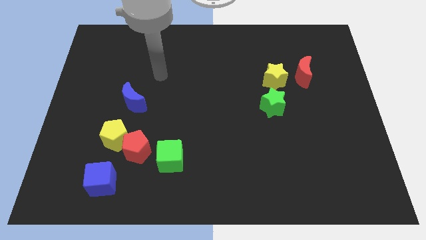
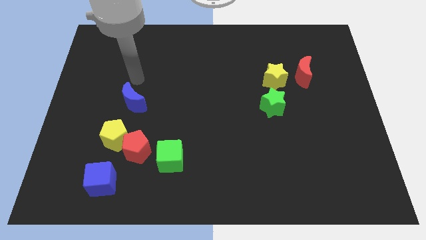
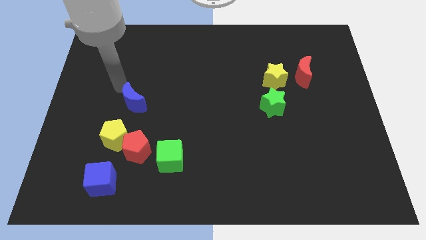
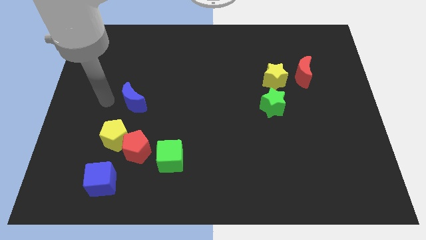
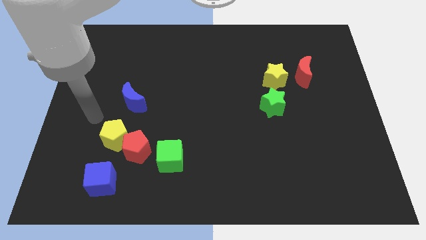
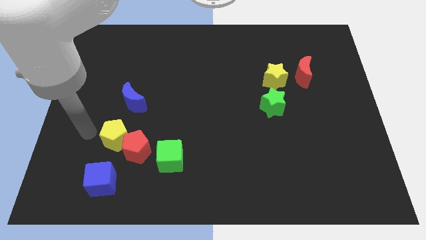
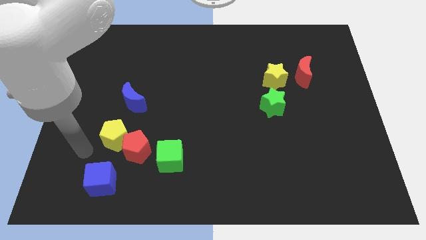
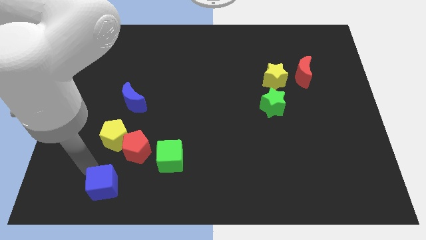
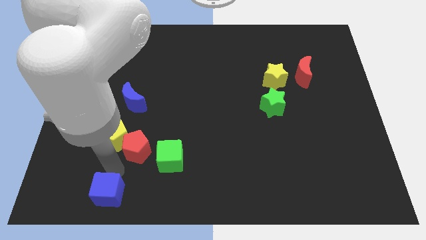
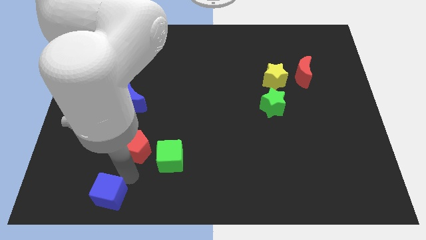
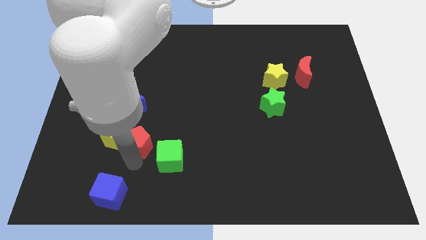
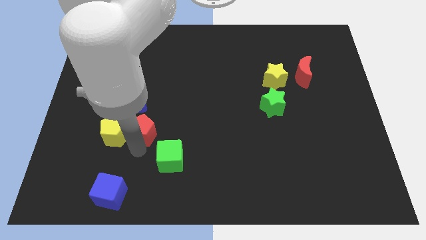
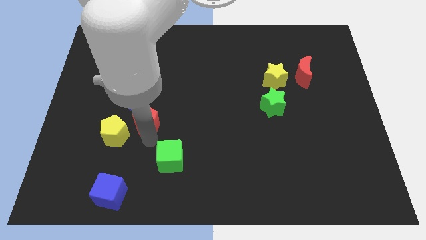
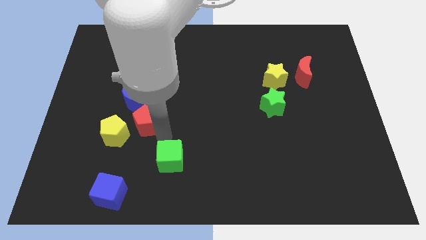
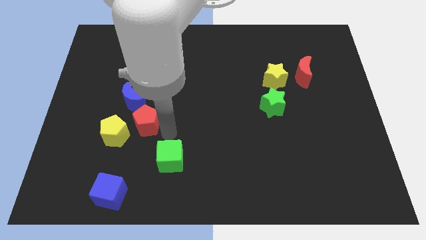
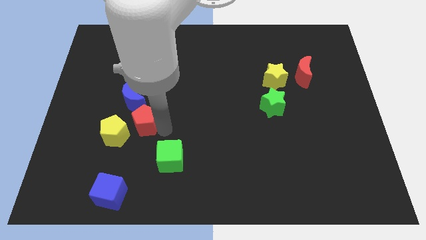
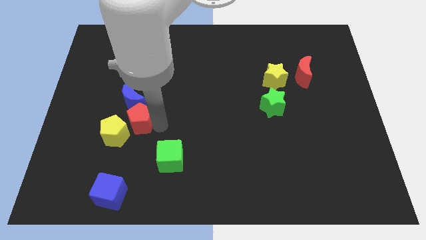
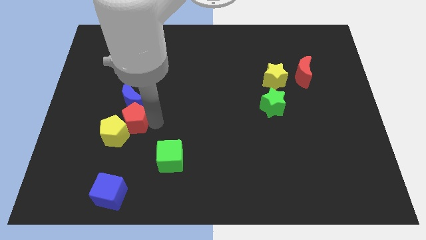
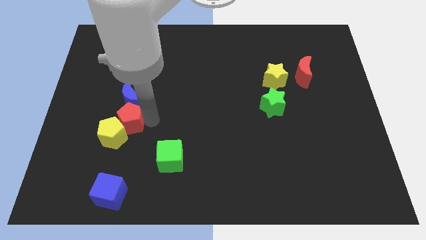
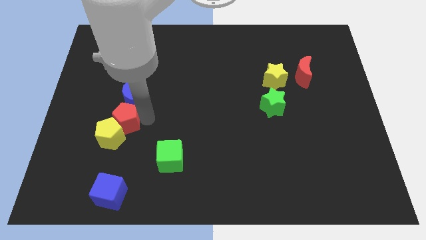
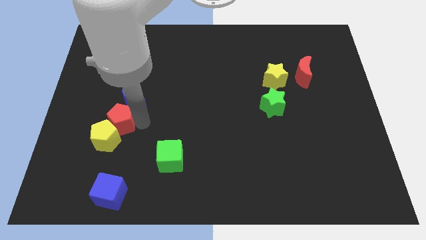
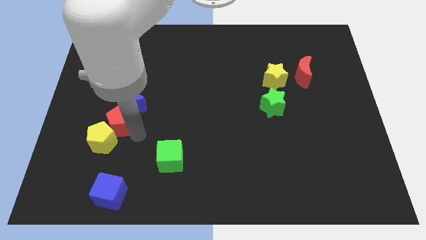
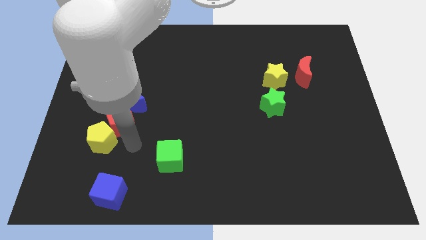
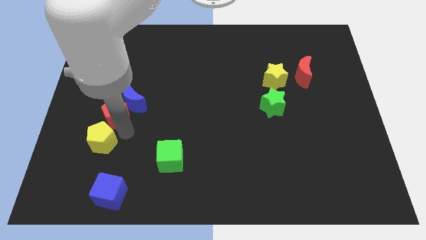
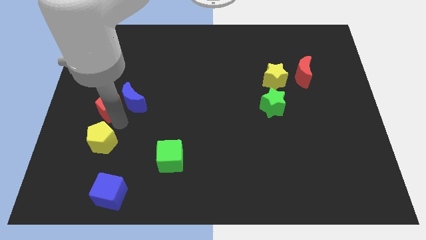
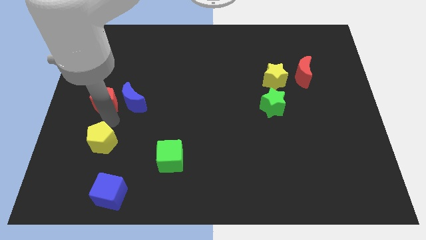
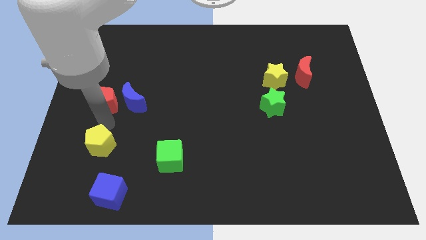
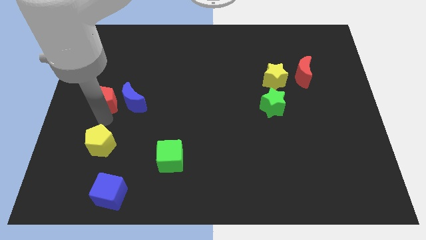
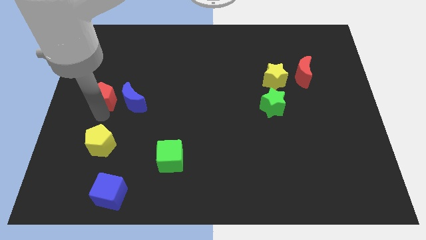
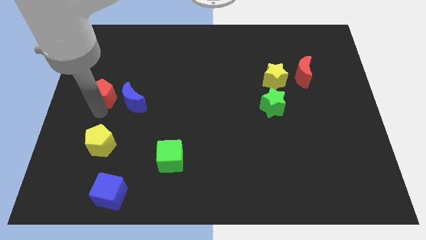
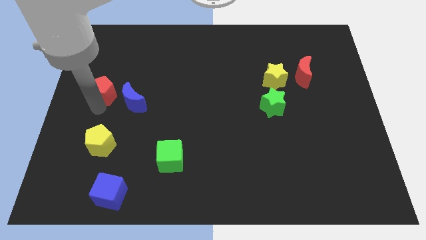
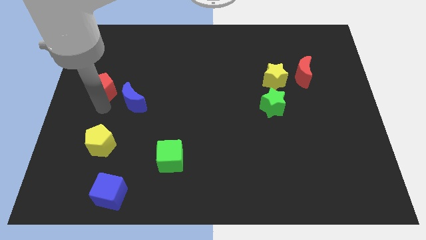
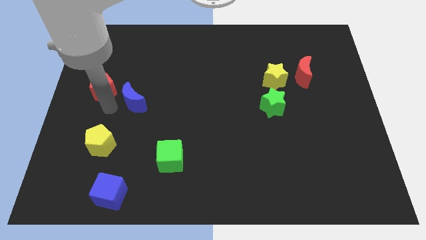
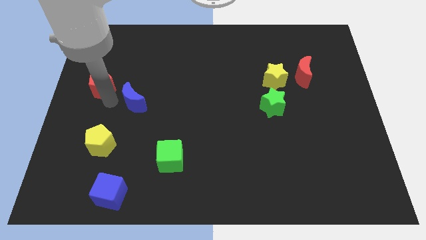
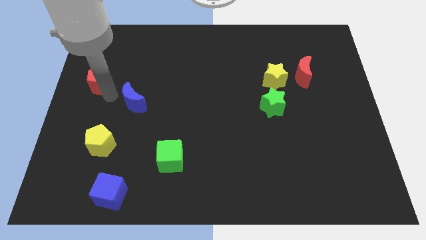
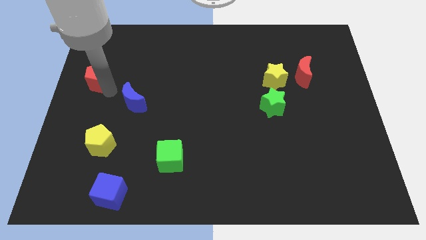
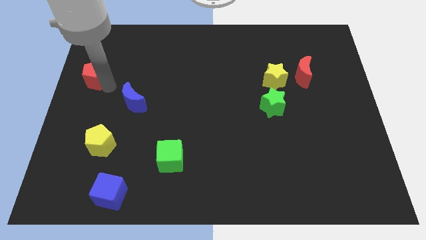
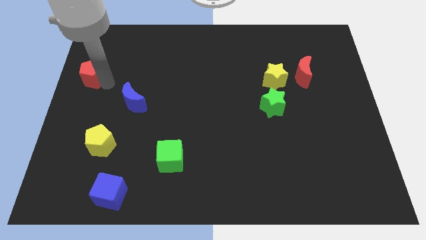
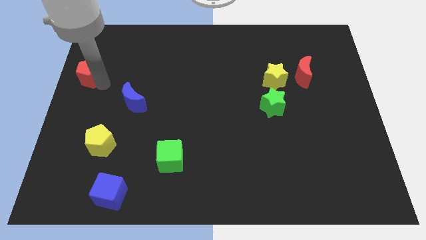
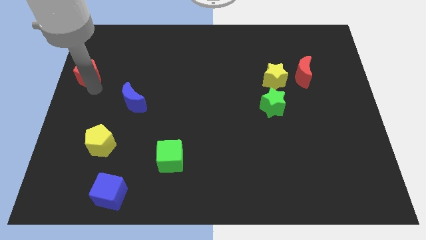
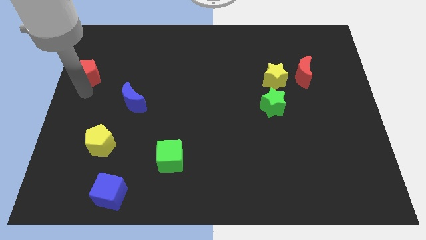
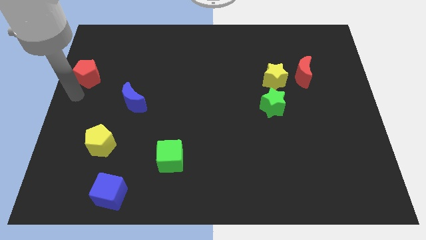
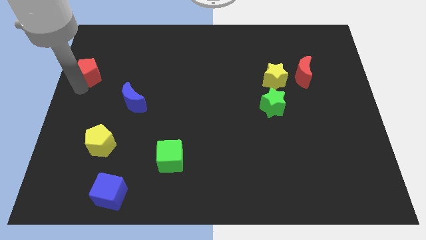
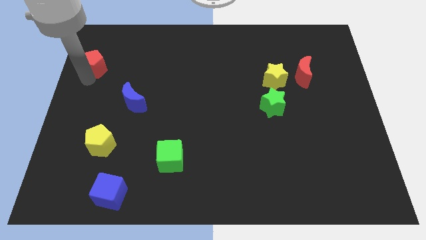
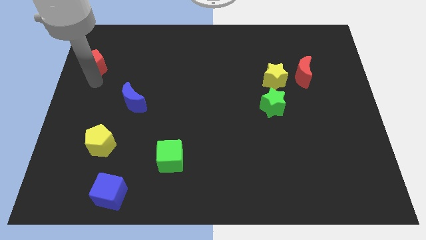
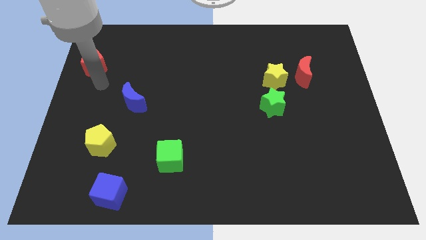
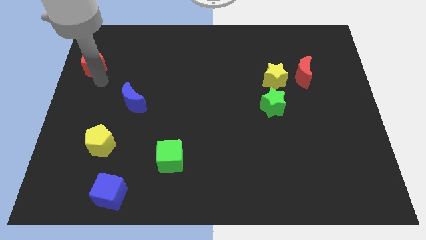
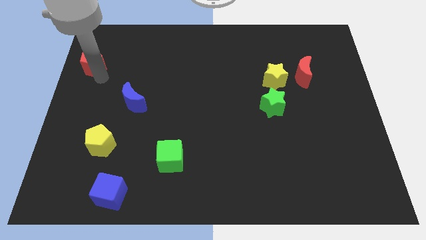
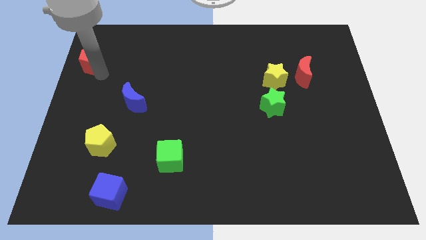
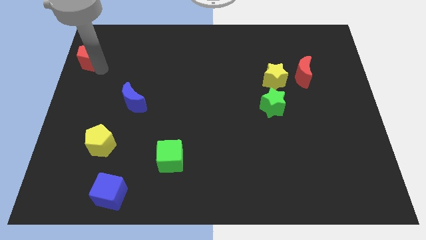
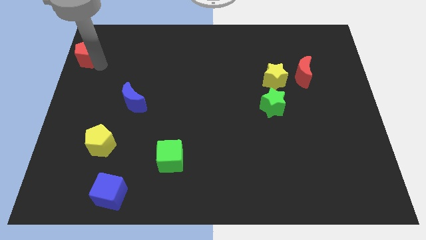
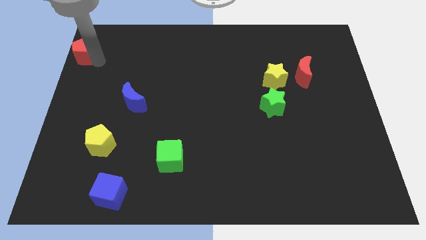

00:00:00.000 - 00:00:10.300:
slide the red pentagon to the top left of the board

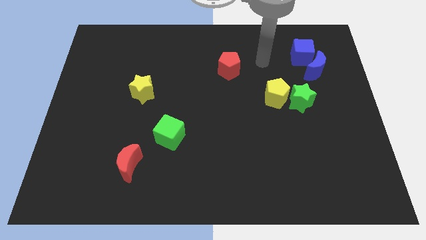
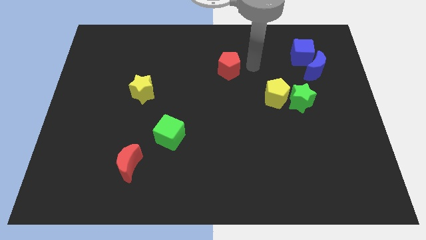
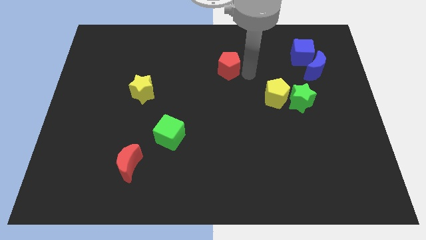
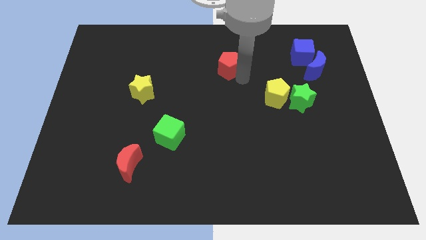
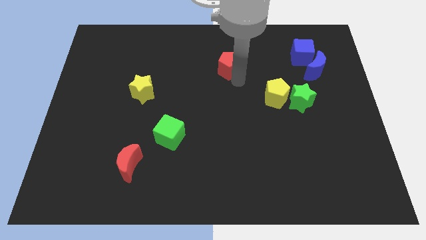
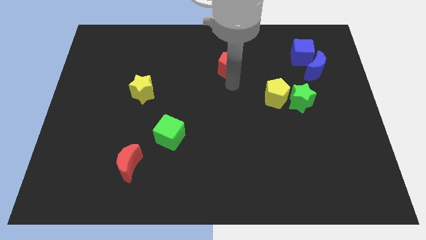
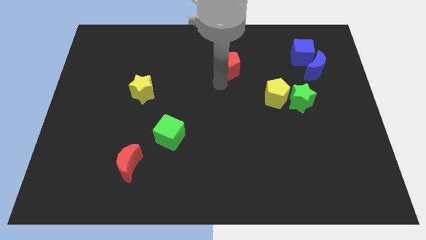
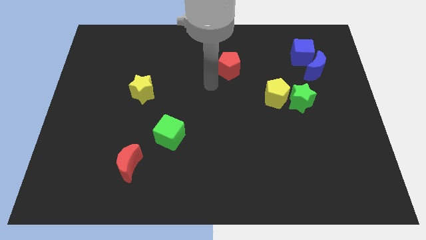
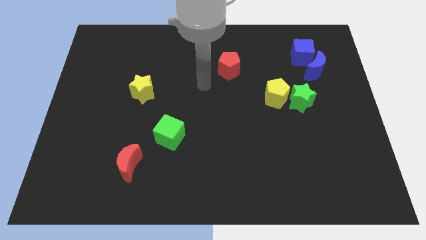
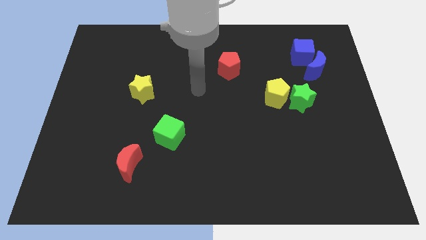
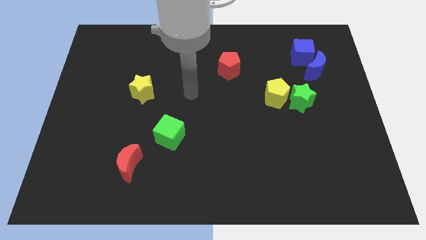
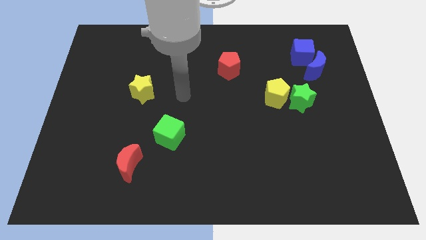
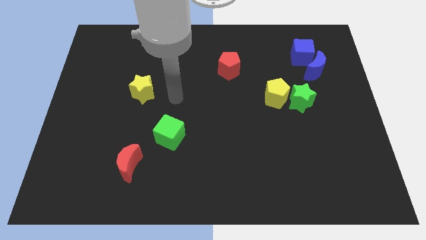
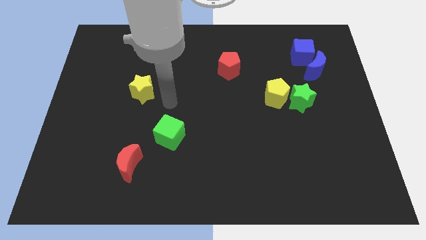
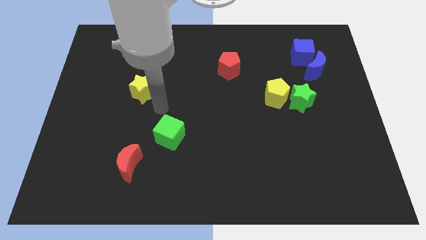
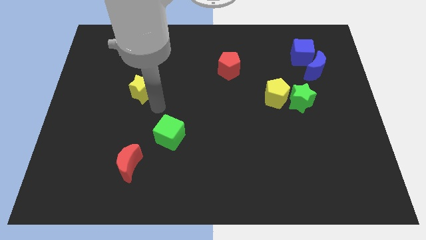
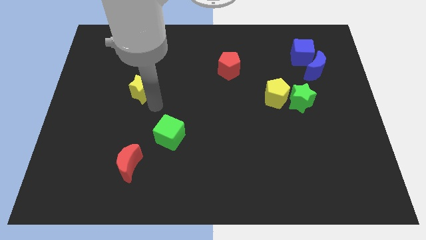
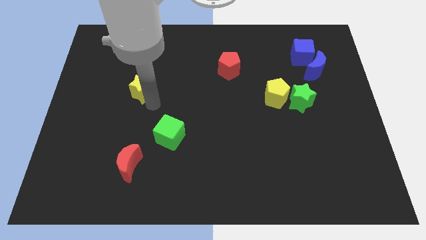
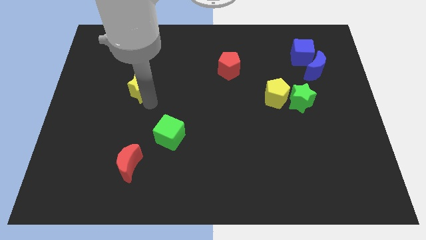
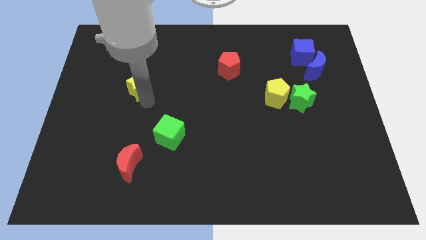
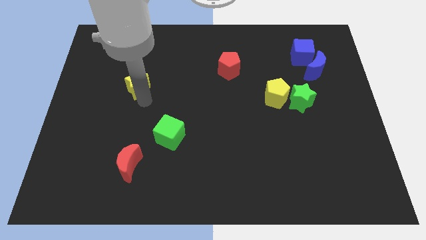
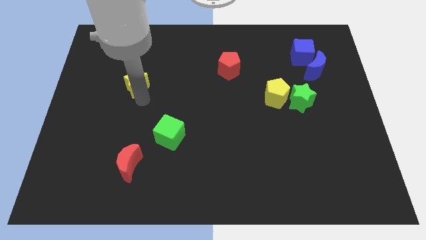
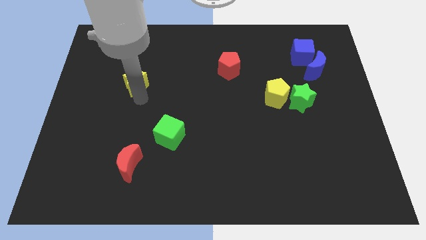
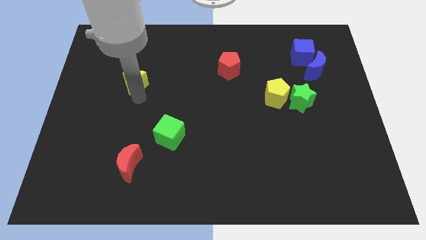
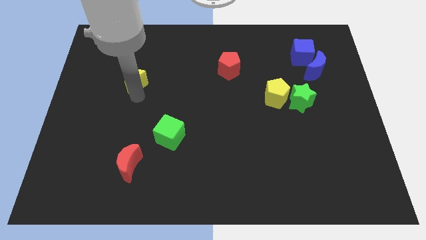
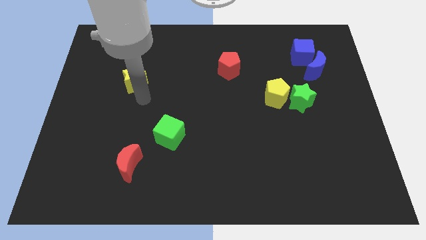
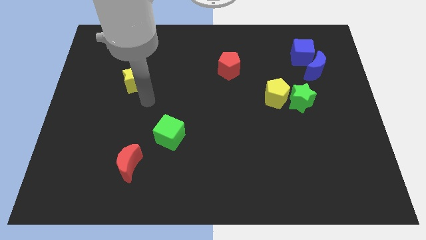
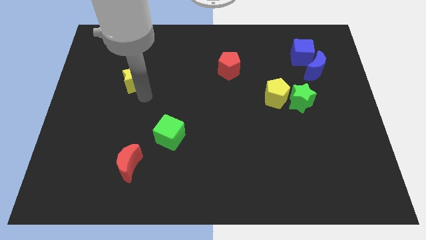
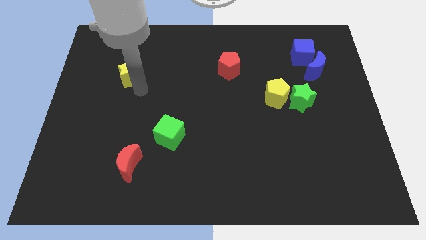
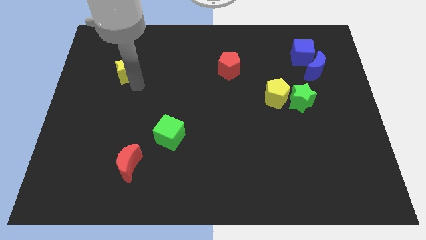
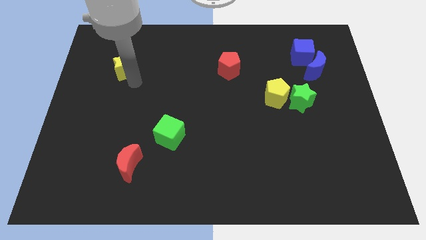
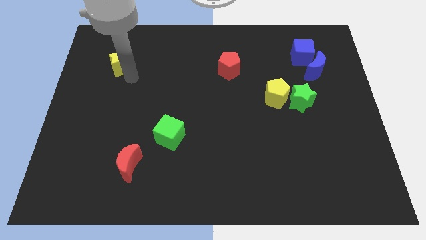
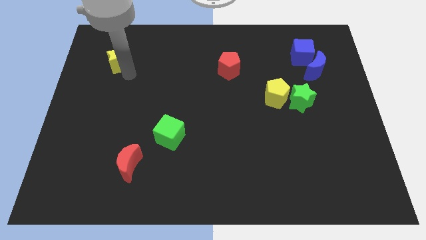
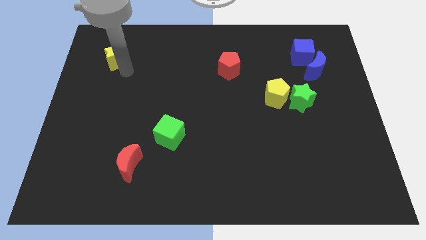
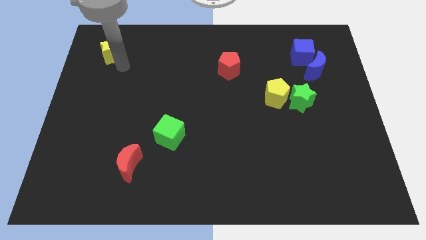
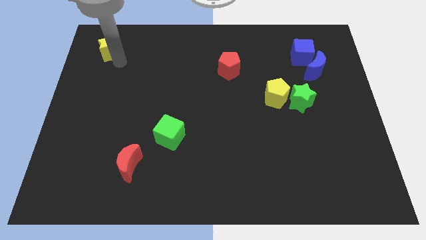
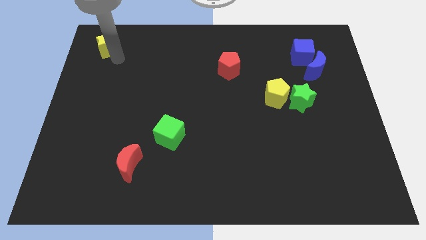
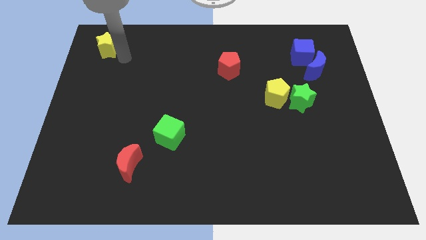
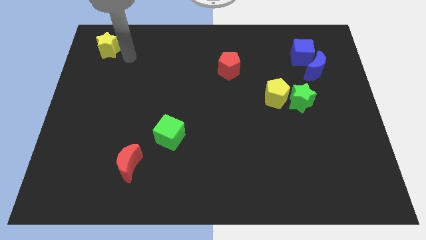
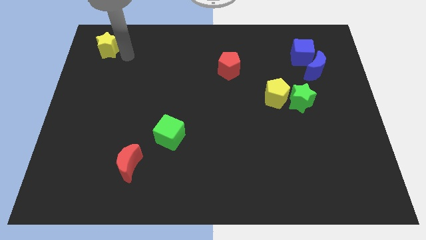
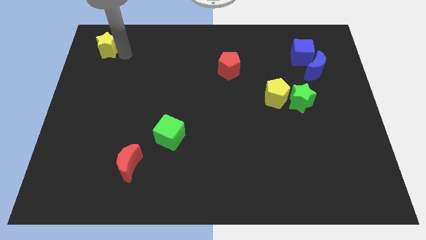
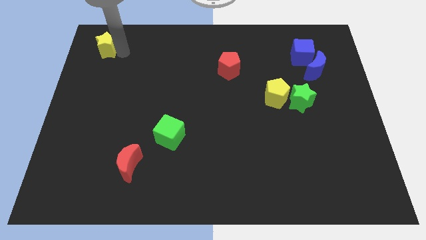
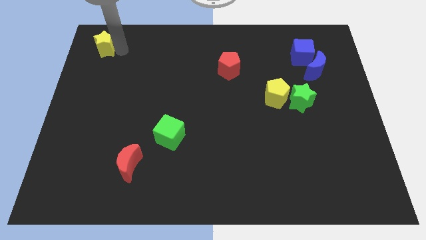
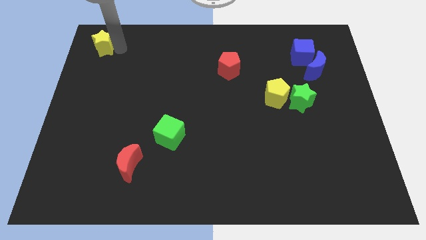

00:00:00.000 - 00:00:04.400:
push the yellow star to the upper left corner
